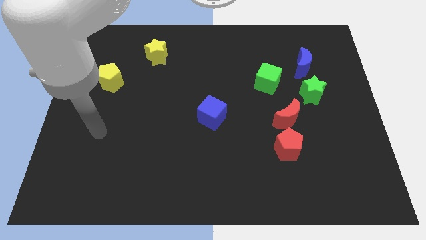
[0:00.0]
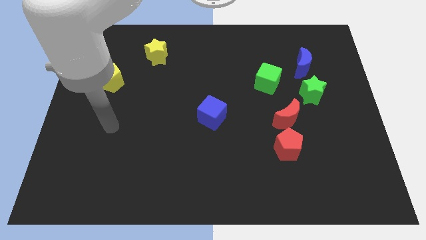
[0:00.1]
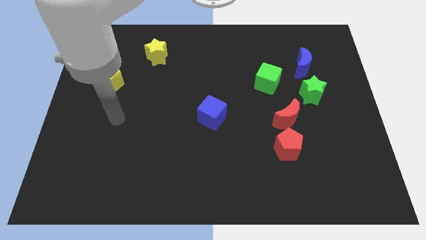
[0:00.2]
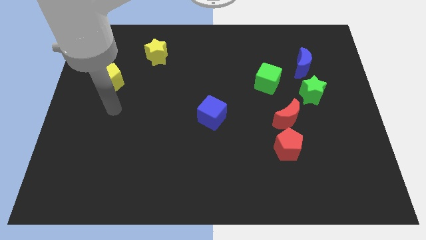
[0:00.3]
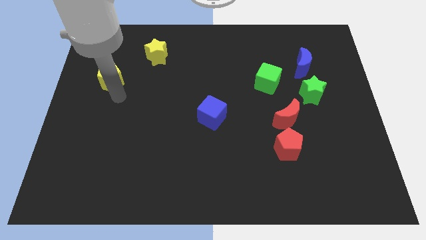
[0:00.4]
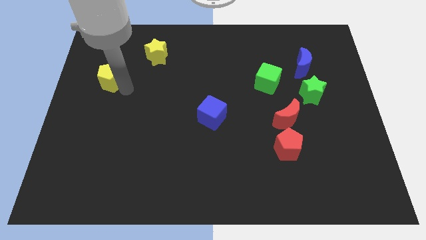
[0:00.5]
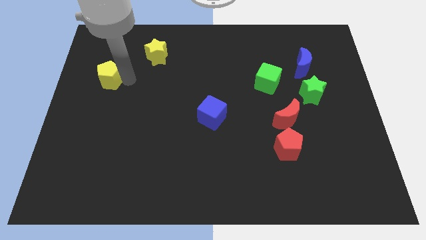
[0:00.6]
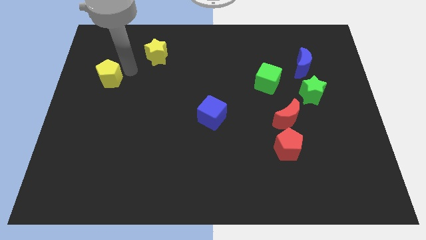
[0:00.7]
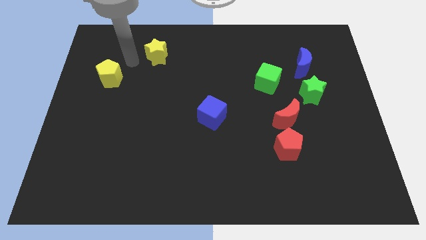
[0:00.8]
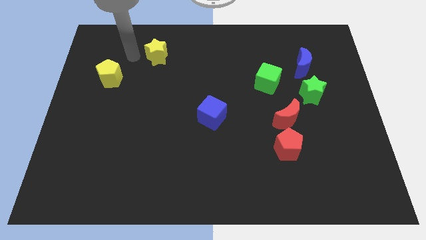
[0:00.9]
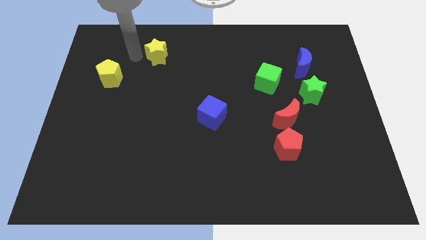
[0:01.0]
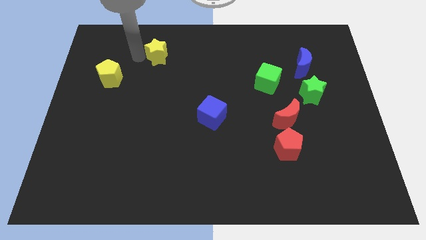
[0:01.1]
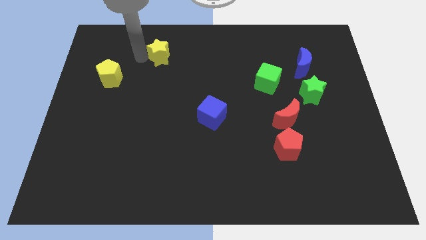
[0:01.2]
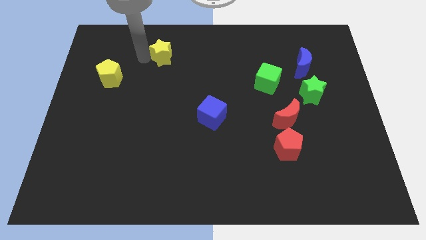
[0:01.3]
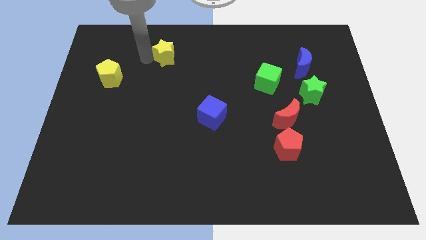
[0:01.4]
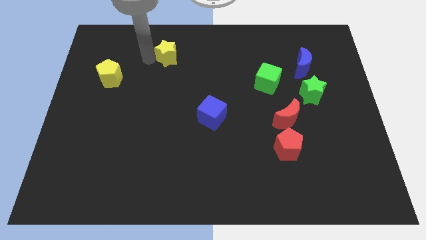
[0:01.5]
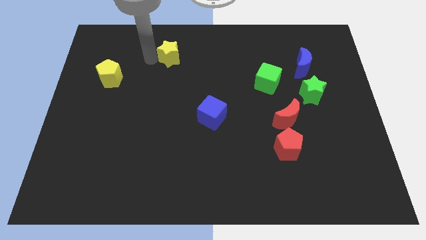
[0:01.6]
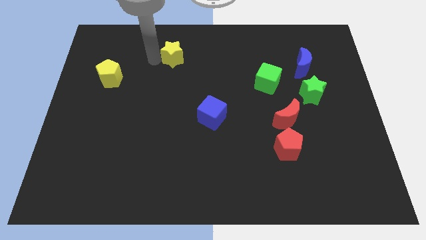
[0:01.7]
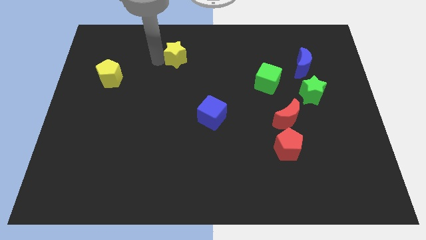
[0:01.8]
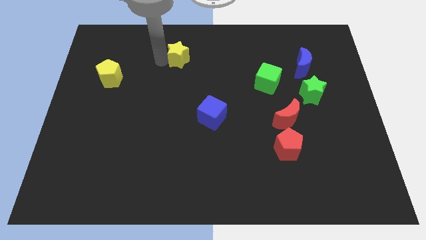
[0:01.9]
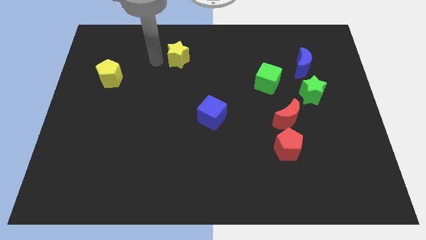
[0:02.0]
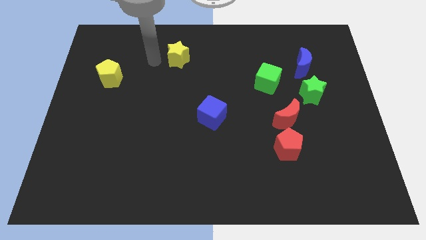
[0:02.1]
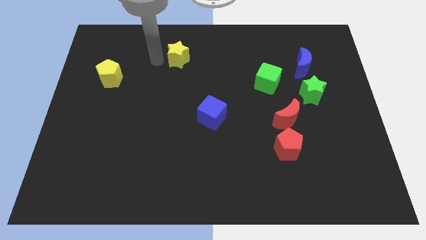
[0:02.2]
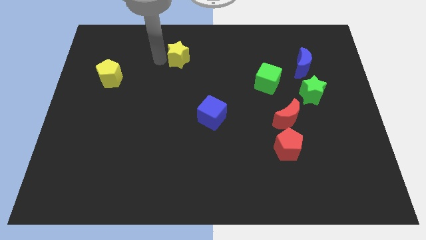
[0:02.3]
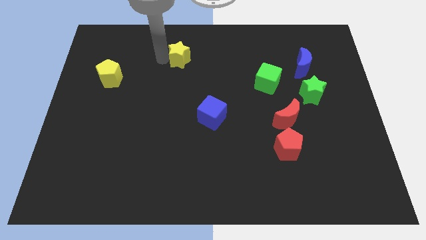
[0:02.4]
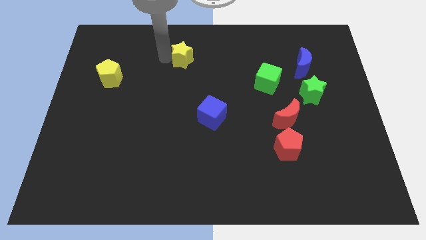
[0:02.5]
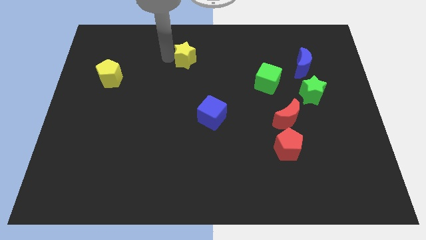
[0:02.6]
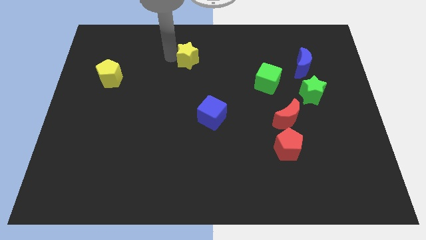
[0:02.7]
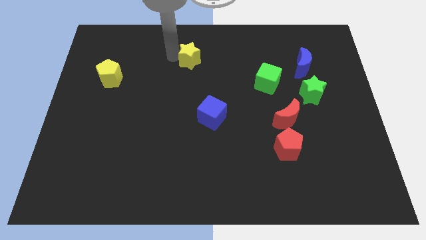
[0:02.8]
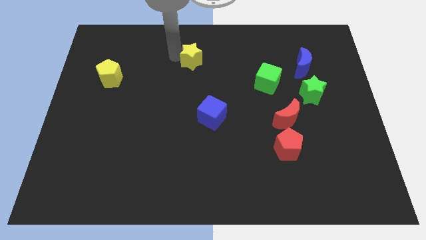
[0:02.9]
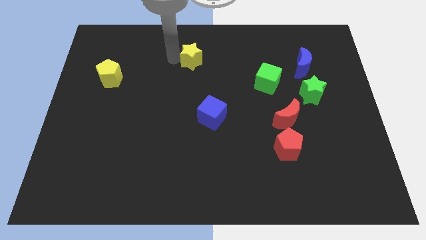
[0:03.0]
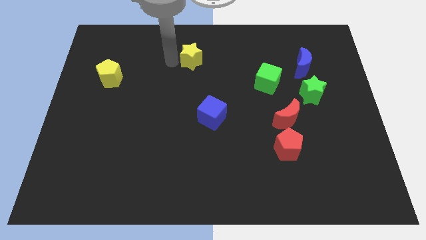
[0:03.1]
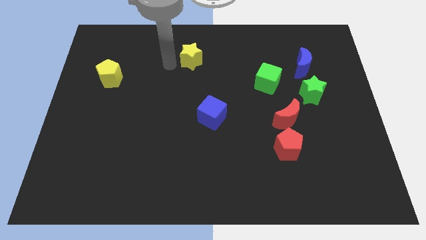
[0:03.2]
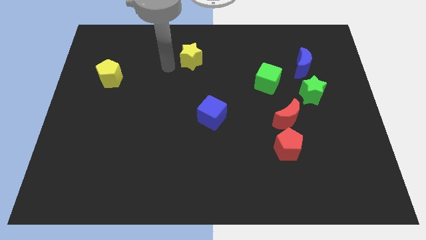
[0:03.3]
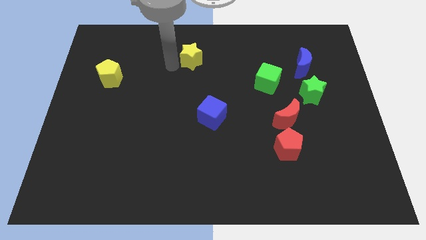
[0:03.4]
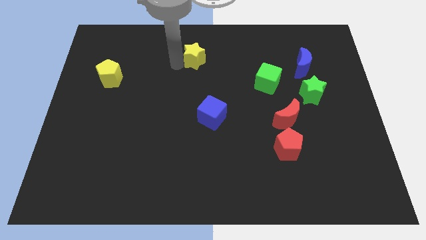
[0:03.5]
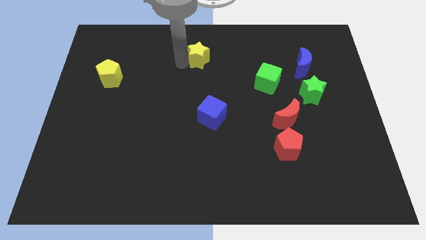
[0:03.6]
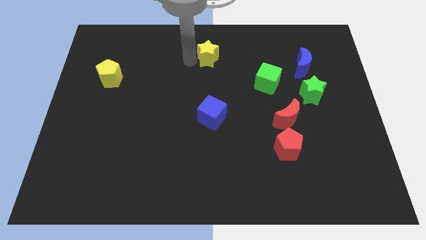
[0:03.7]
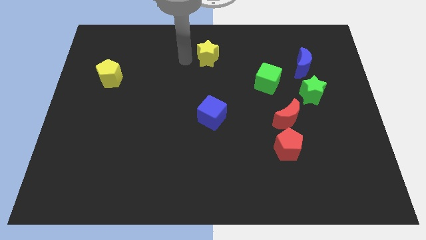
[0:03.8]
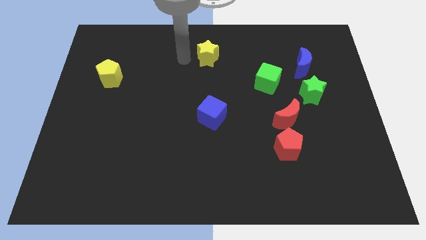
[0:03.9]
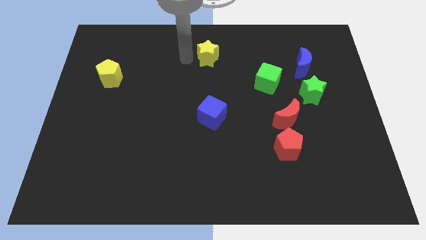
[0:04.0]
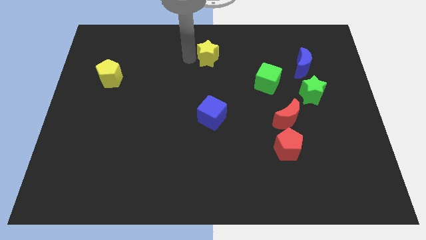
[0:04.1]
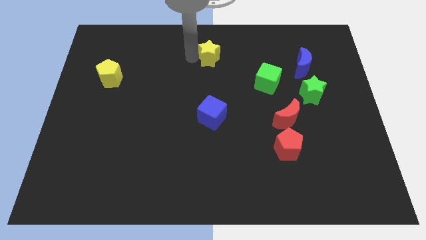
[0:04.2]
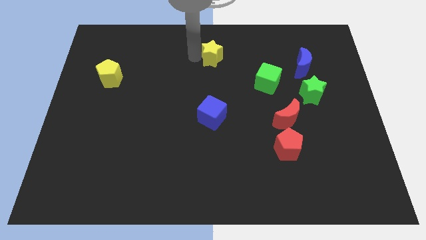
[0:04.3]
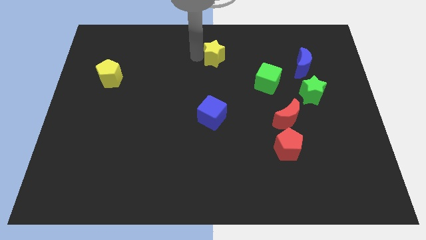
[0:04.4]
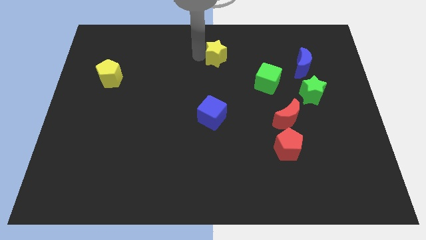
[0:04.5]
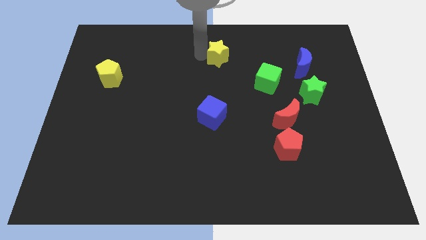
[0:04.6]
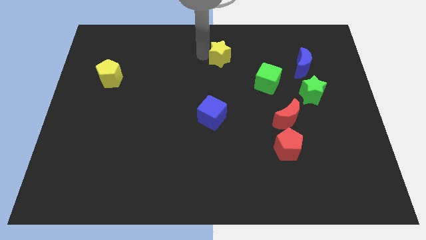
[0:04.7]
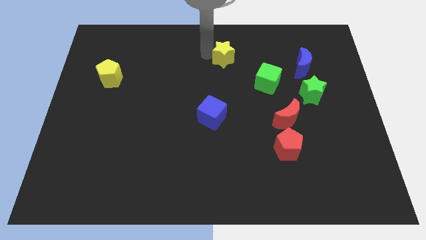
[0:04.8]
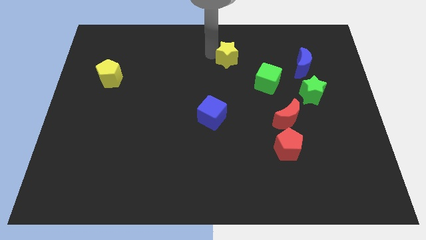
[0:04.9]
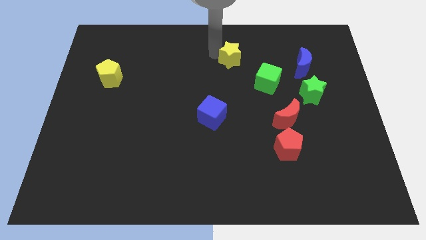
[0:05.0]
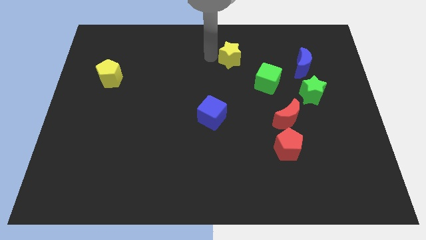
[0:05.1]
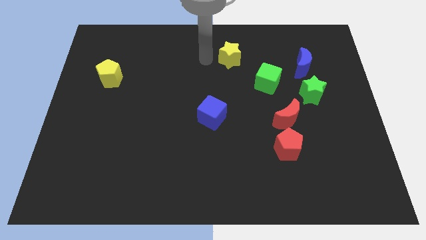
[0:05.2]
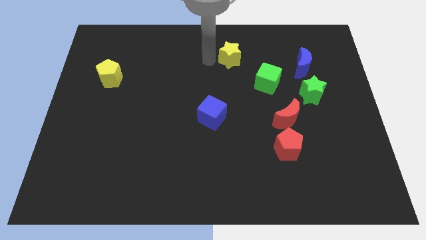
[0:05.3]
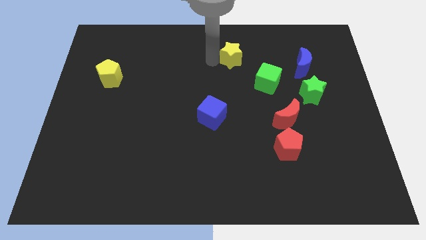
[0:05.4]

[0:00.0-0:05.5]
slide the yellow star right

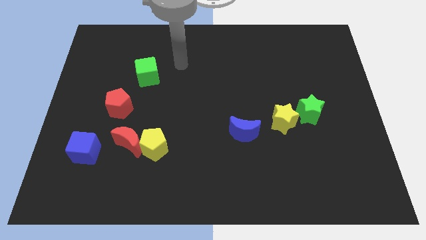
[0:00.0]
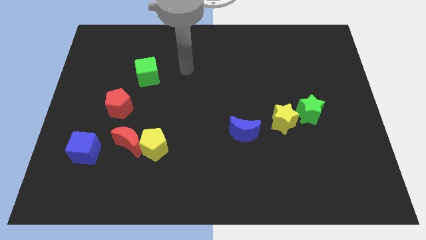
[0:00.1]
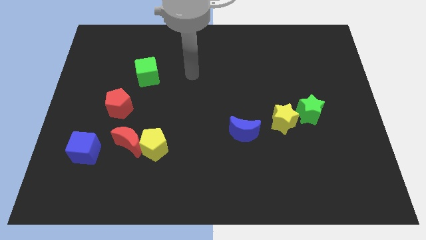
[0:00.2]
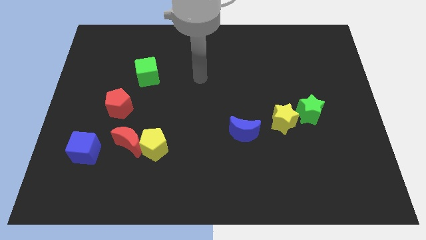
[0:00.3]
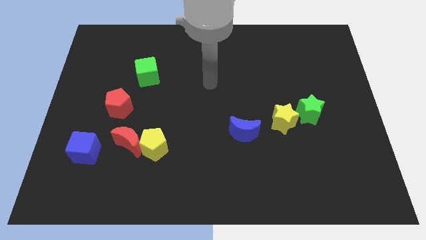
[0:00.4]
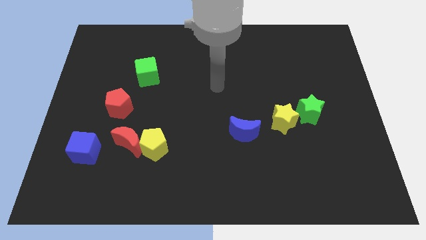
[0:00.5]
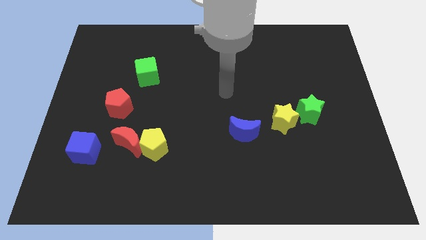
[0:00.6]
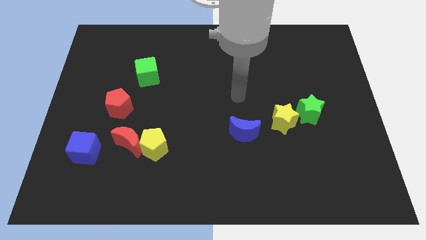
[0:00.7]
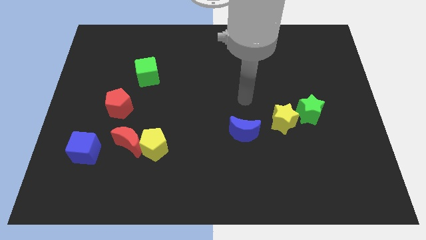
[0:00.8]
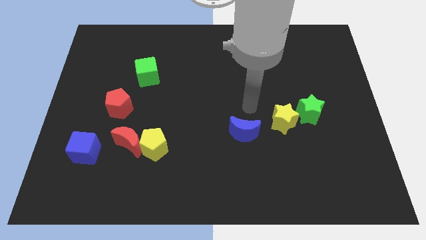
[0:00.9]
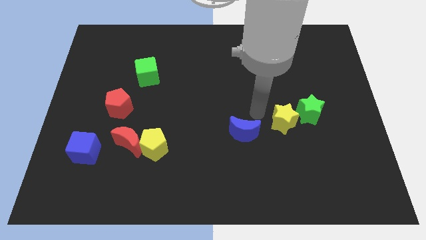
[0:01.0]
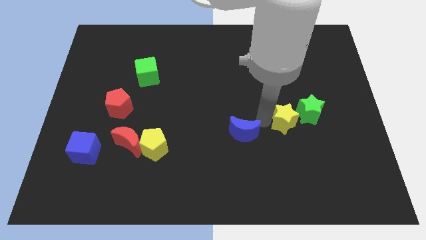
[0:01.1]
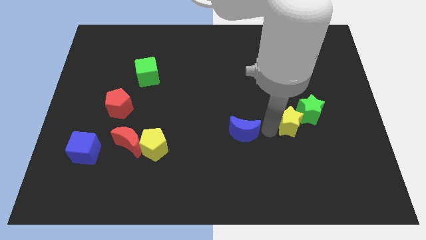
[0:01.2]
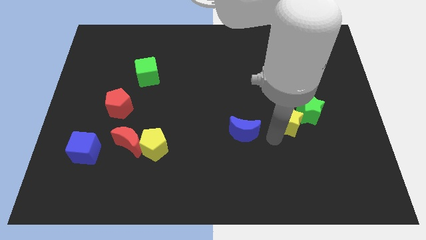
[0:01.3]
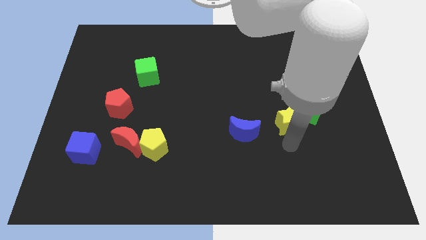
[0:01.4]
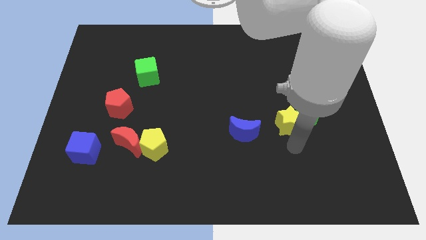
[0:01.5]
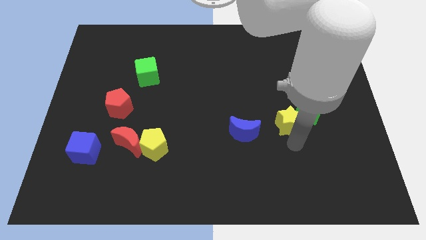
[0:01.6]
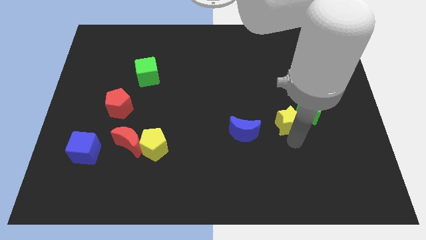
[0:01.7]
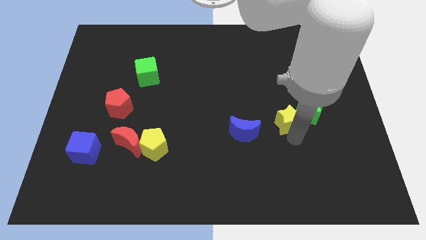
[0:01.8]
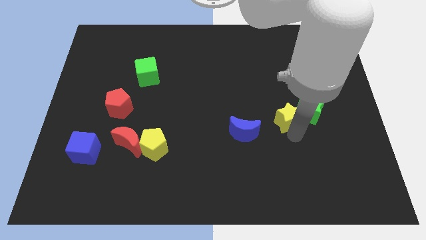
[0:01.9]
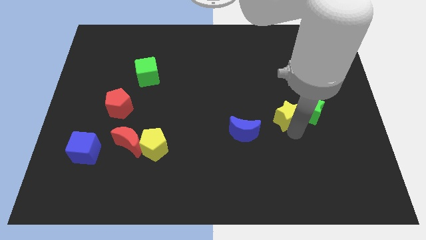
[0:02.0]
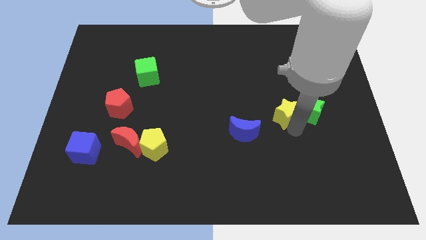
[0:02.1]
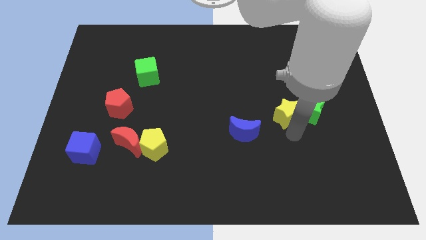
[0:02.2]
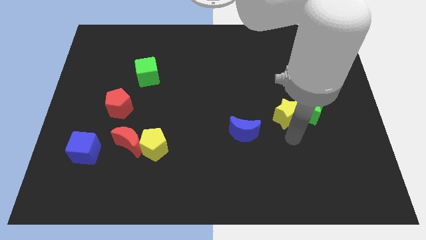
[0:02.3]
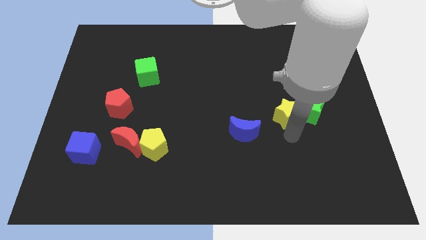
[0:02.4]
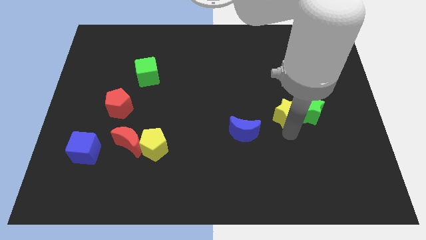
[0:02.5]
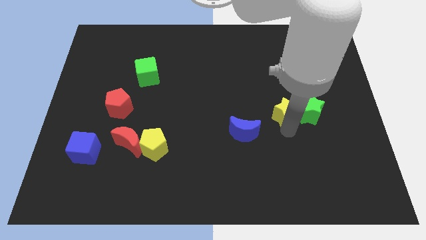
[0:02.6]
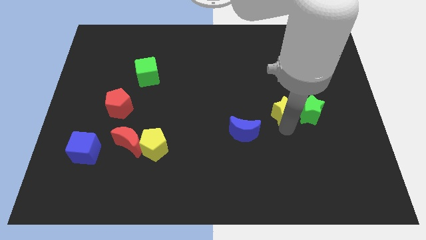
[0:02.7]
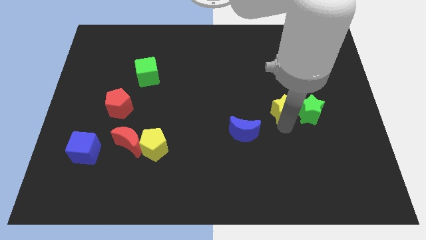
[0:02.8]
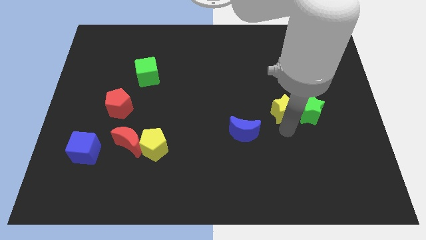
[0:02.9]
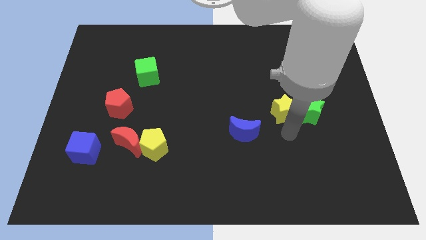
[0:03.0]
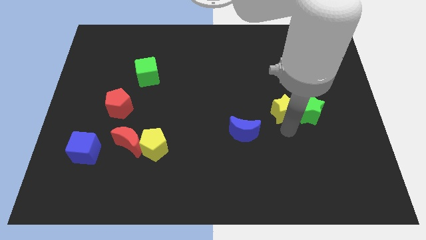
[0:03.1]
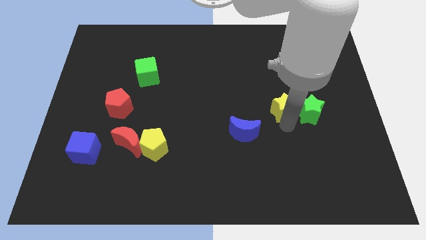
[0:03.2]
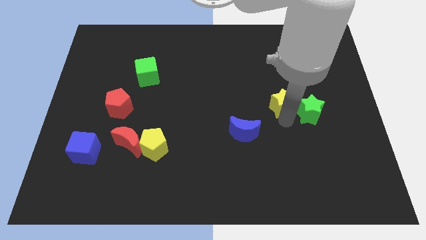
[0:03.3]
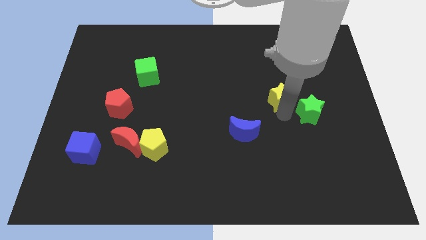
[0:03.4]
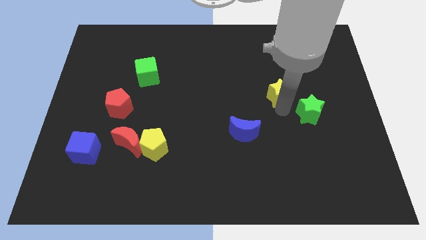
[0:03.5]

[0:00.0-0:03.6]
push the yellow star upwards slightly
